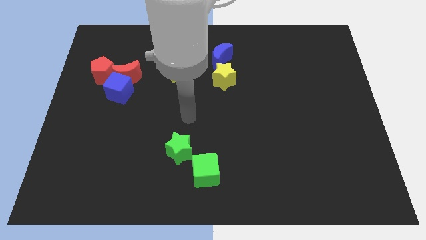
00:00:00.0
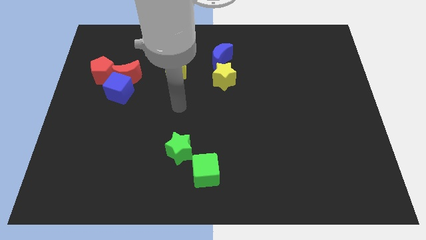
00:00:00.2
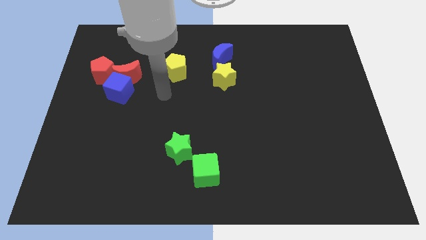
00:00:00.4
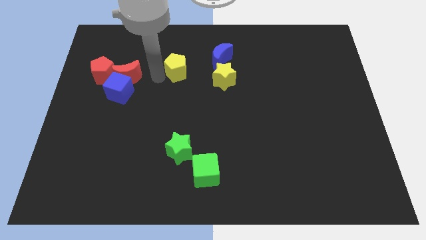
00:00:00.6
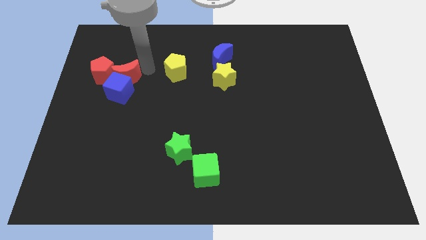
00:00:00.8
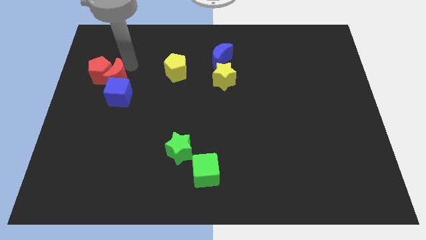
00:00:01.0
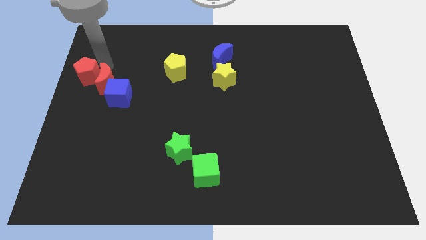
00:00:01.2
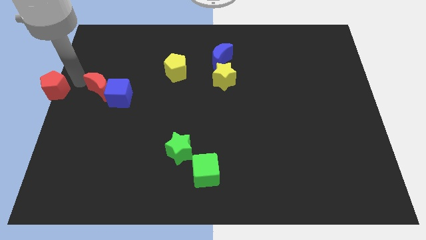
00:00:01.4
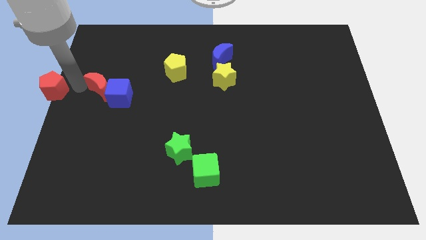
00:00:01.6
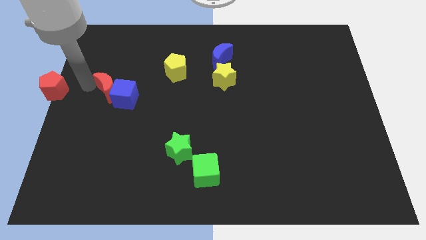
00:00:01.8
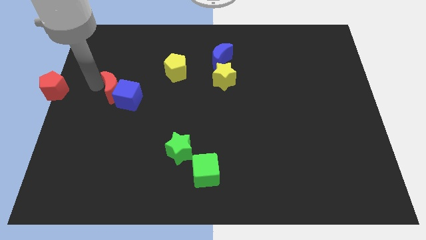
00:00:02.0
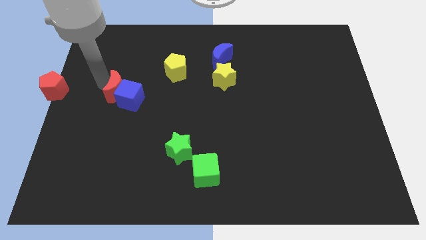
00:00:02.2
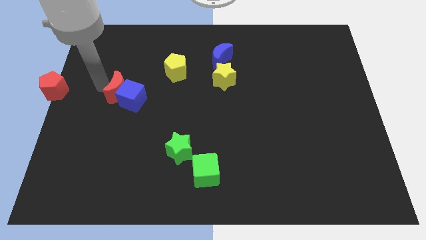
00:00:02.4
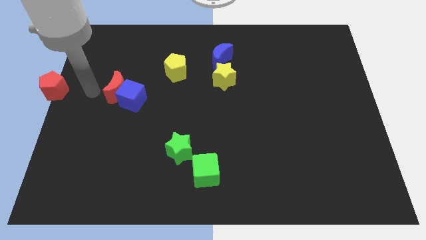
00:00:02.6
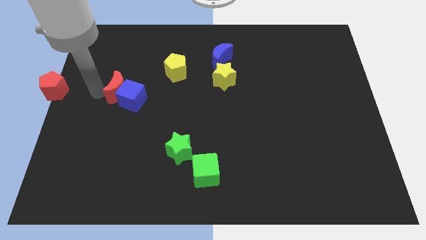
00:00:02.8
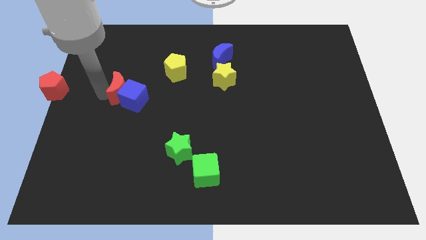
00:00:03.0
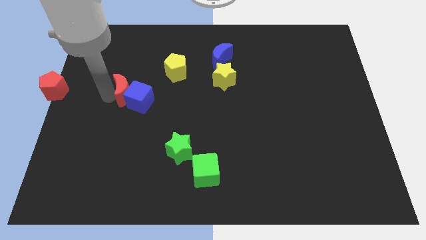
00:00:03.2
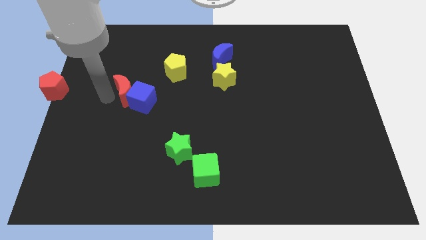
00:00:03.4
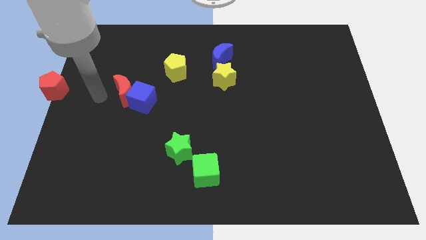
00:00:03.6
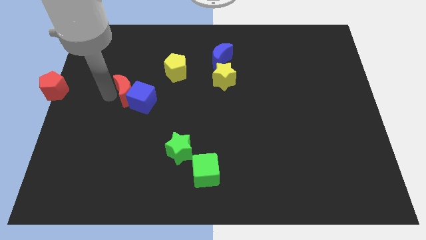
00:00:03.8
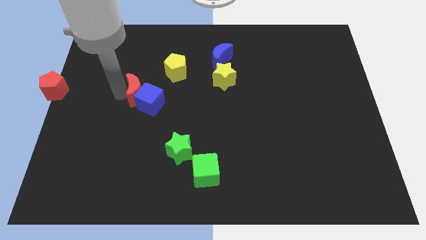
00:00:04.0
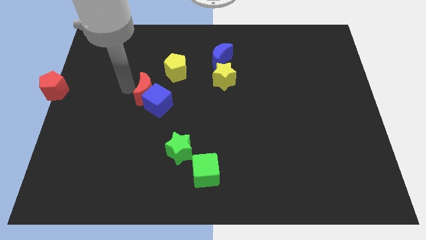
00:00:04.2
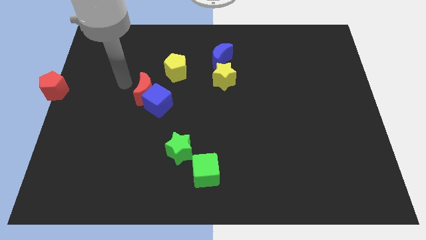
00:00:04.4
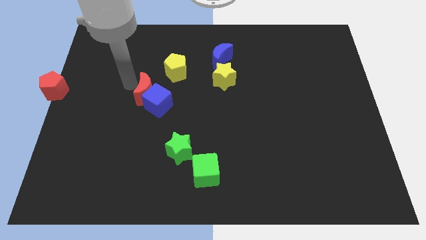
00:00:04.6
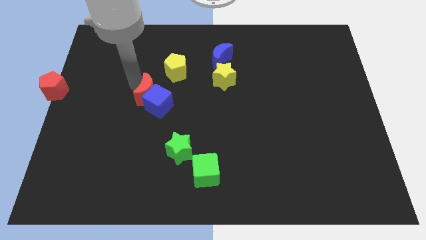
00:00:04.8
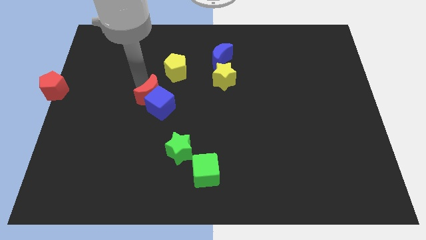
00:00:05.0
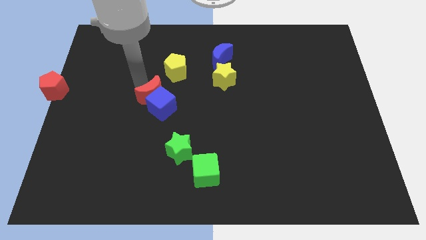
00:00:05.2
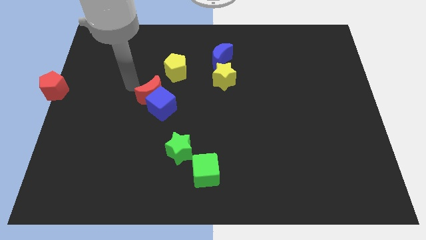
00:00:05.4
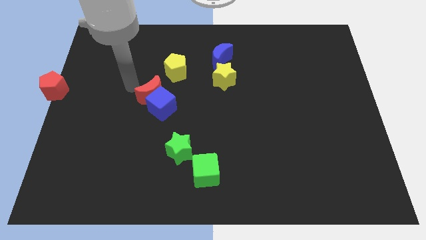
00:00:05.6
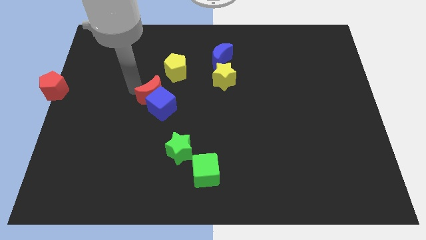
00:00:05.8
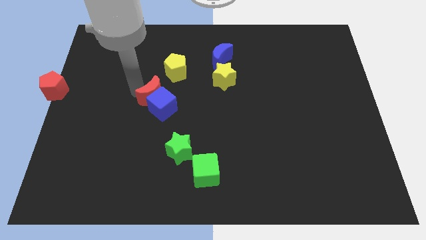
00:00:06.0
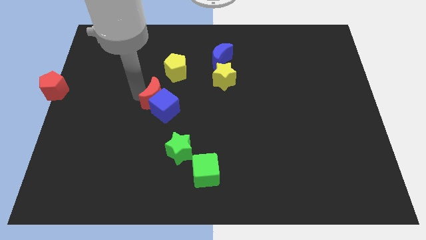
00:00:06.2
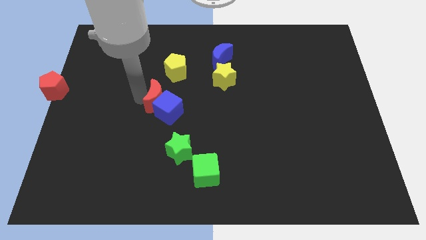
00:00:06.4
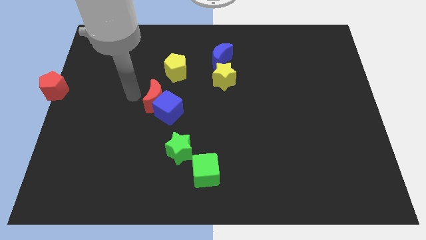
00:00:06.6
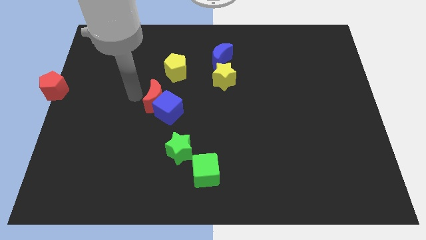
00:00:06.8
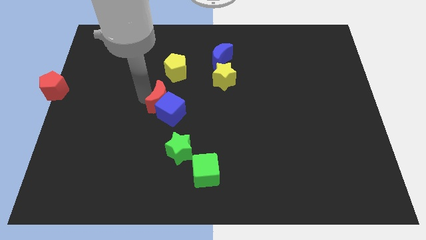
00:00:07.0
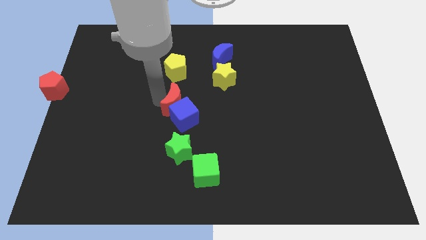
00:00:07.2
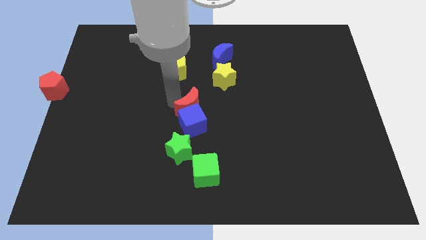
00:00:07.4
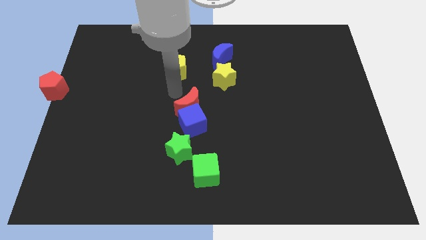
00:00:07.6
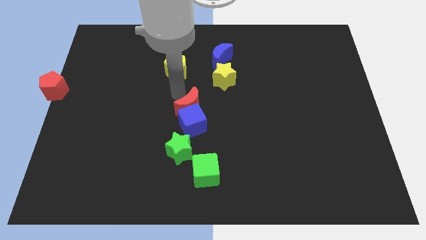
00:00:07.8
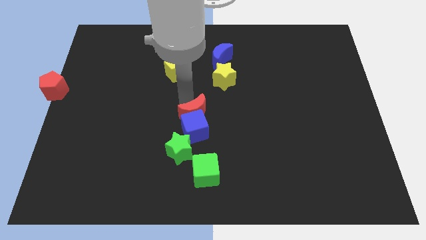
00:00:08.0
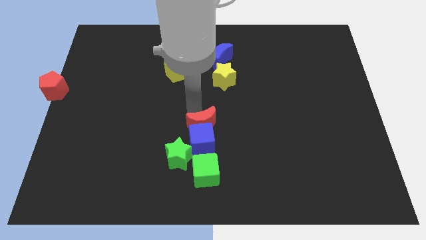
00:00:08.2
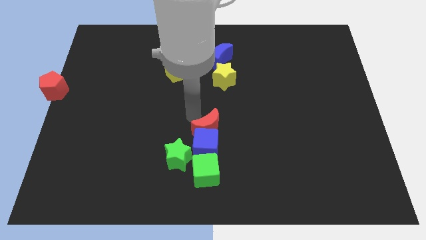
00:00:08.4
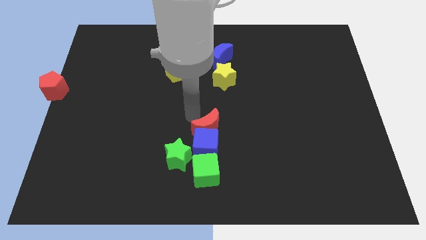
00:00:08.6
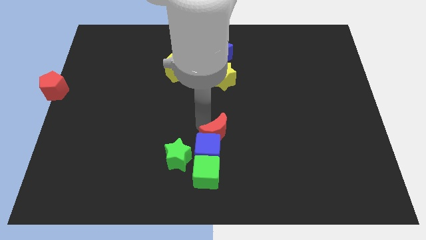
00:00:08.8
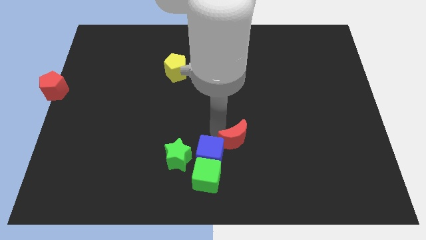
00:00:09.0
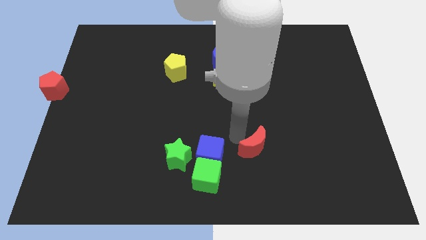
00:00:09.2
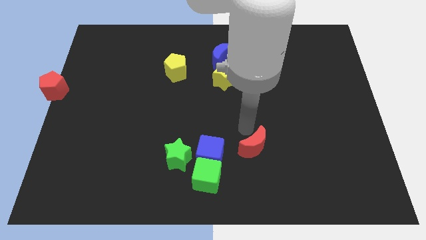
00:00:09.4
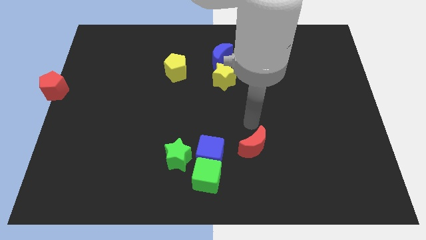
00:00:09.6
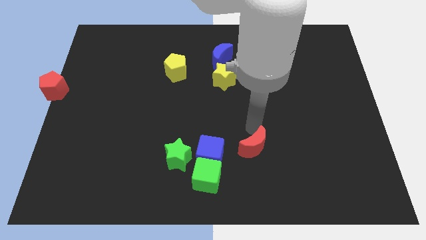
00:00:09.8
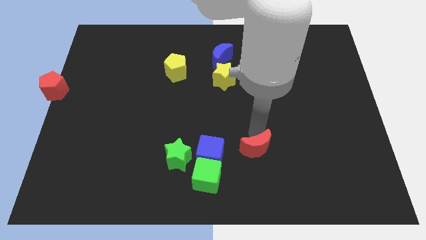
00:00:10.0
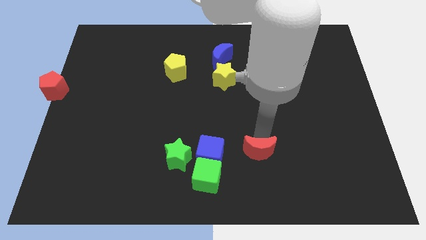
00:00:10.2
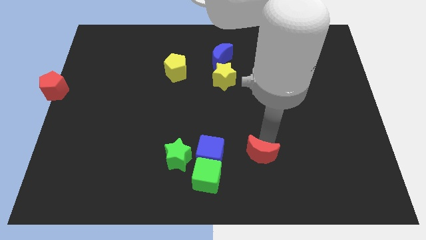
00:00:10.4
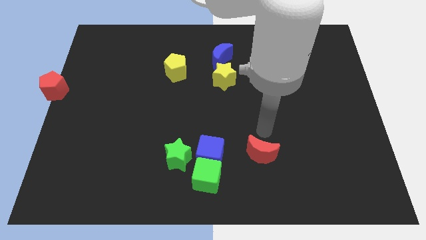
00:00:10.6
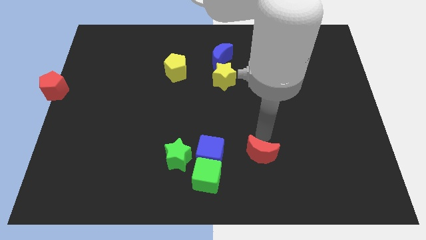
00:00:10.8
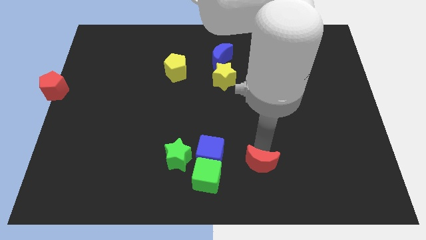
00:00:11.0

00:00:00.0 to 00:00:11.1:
move the red moon right of the green cube

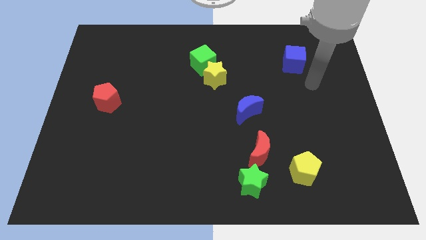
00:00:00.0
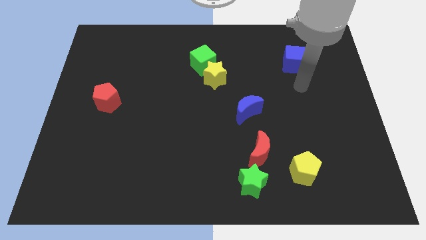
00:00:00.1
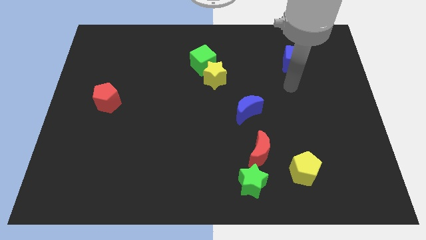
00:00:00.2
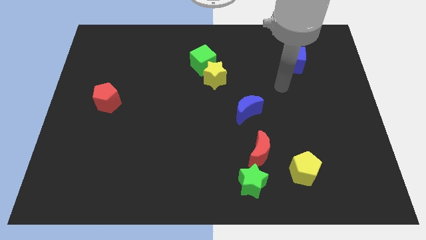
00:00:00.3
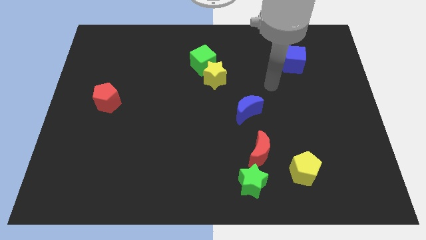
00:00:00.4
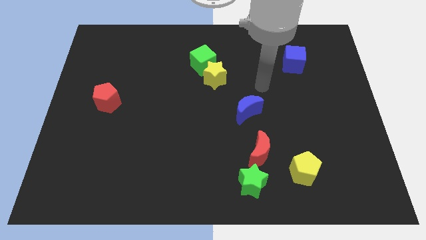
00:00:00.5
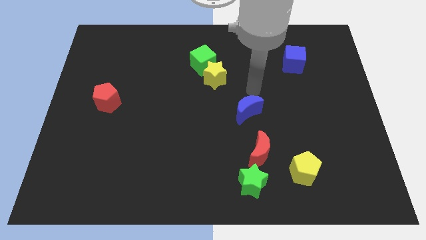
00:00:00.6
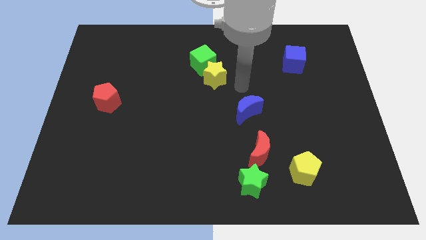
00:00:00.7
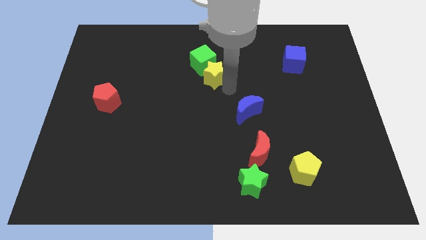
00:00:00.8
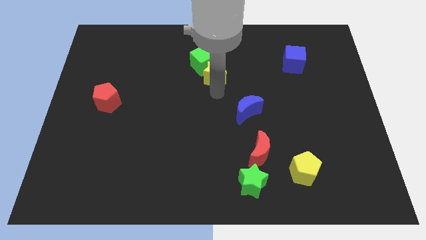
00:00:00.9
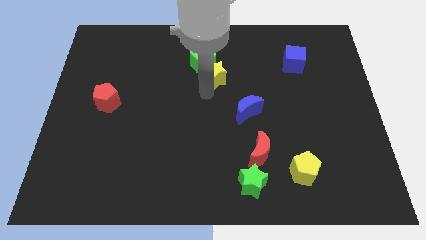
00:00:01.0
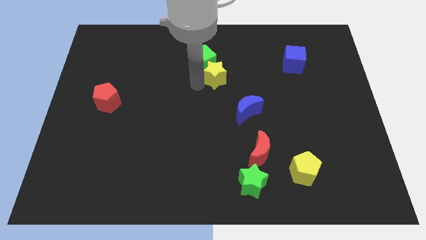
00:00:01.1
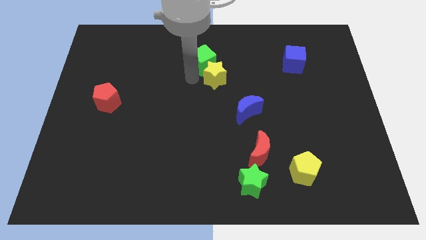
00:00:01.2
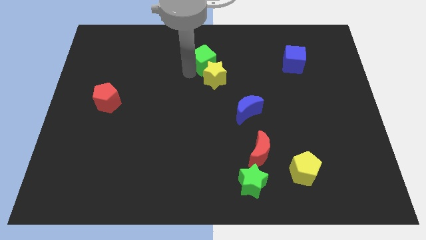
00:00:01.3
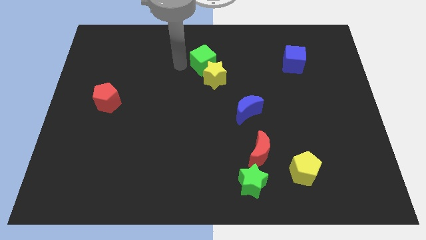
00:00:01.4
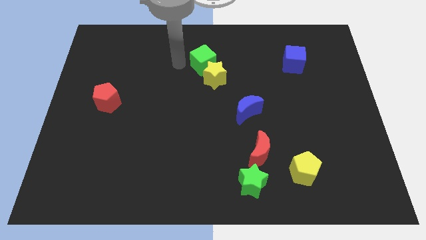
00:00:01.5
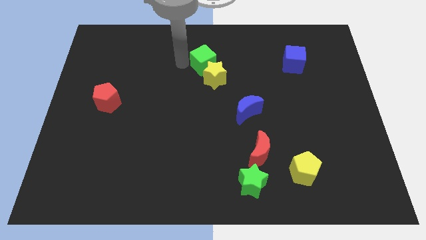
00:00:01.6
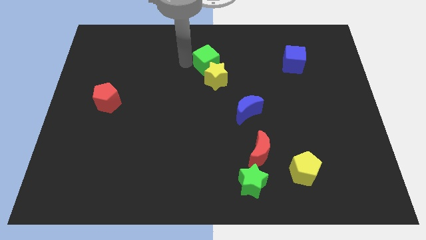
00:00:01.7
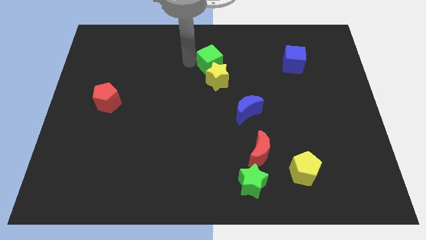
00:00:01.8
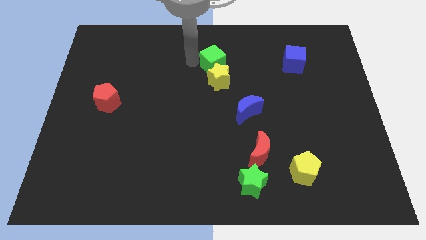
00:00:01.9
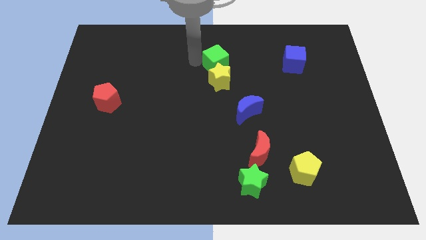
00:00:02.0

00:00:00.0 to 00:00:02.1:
put the green cube to the top right side of the yellow star
